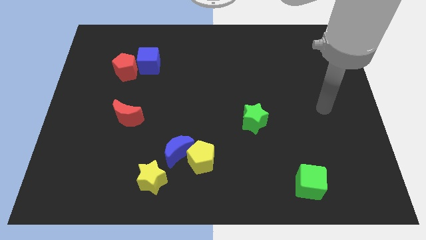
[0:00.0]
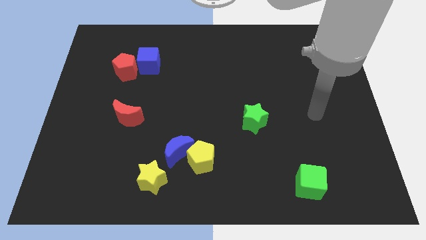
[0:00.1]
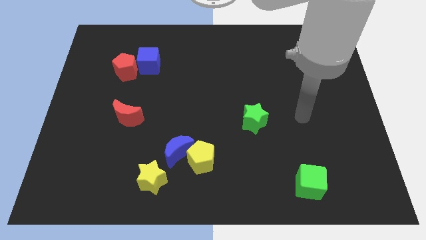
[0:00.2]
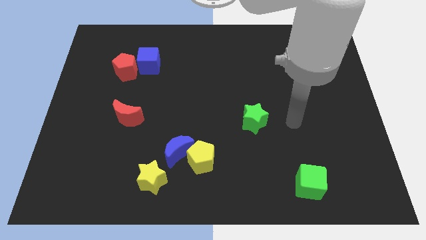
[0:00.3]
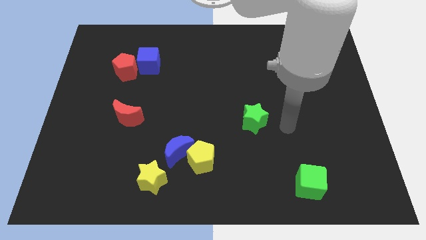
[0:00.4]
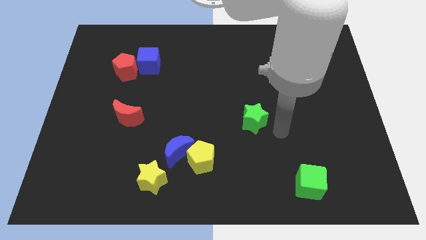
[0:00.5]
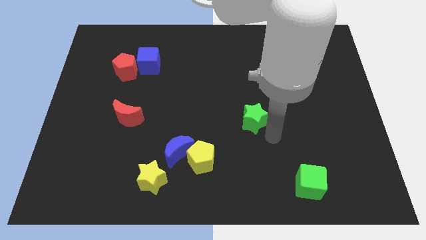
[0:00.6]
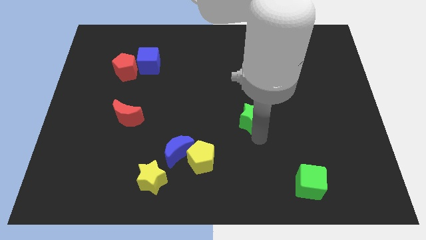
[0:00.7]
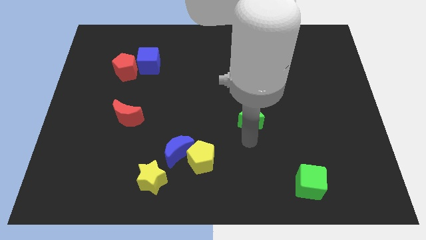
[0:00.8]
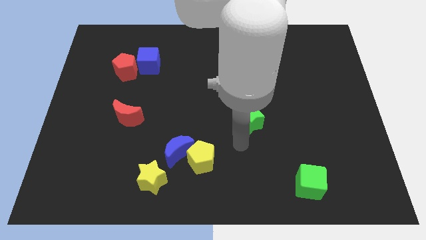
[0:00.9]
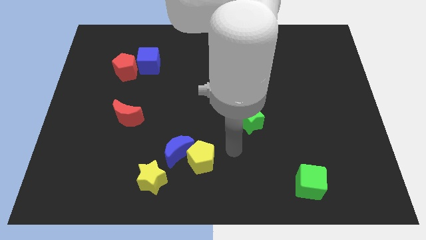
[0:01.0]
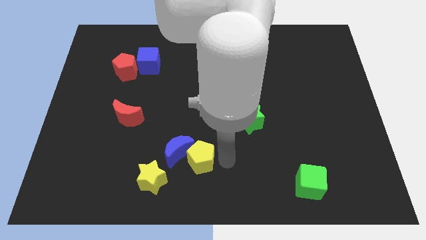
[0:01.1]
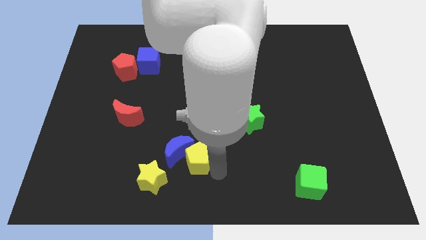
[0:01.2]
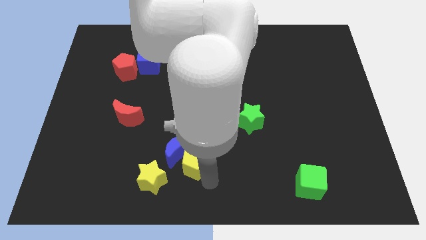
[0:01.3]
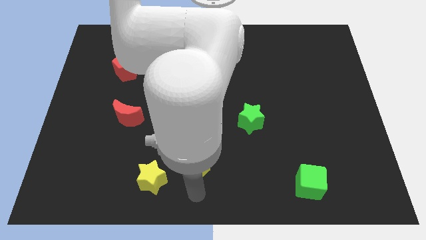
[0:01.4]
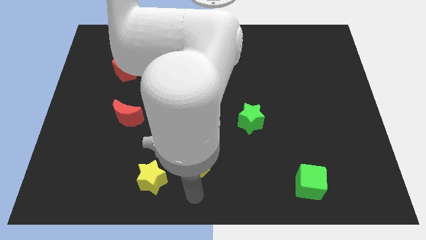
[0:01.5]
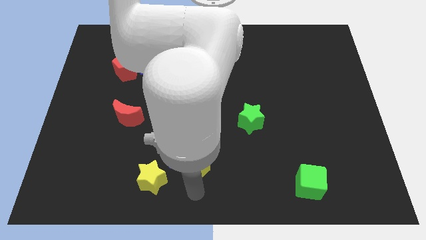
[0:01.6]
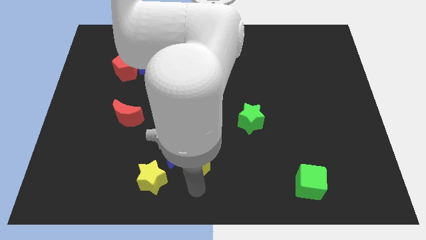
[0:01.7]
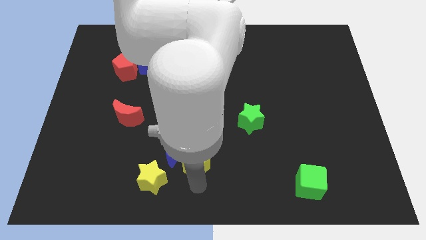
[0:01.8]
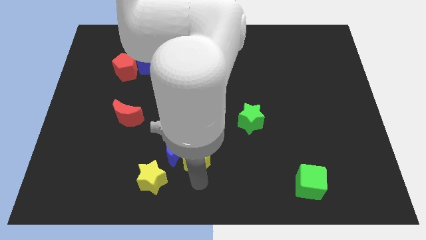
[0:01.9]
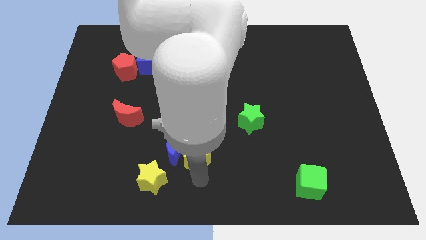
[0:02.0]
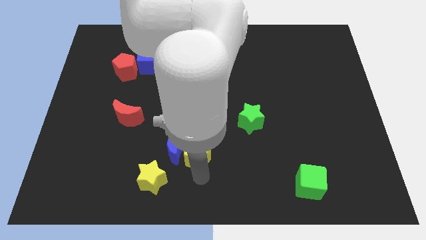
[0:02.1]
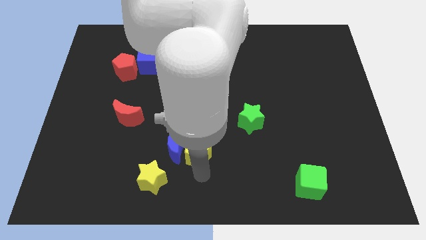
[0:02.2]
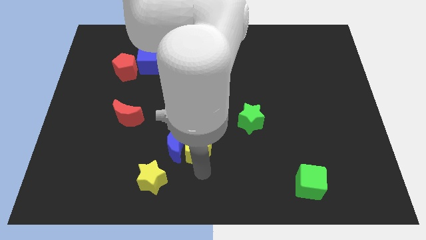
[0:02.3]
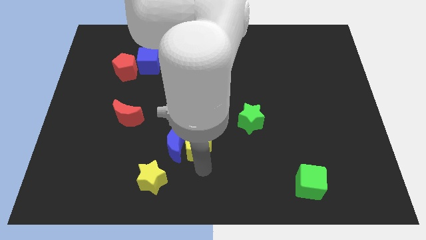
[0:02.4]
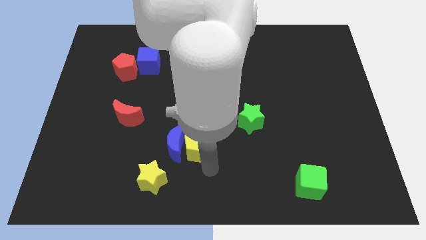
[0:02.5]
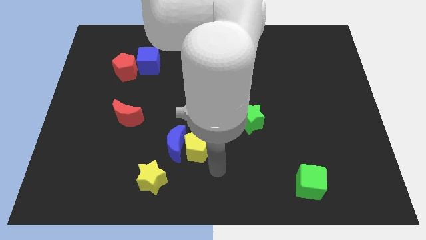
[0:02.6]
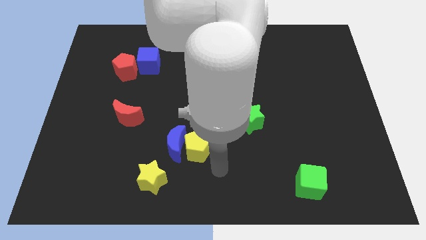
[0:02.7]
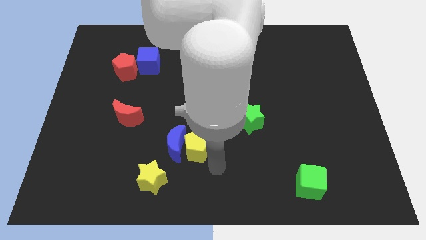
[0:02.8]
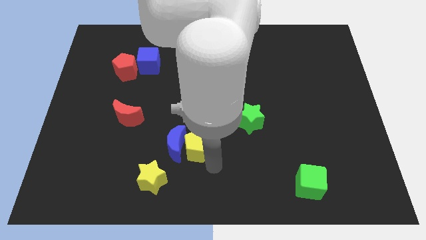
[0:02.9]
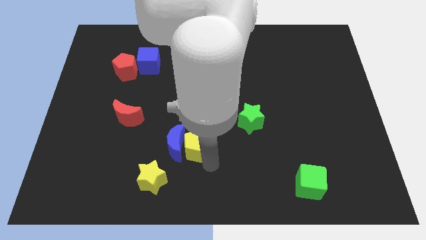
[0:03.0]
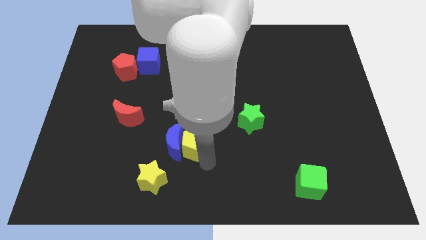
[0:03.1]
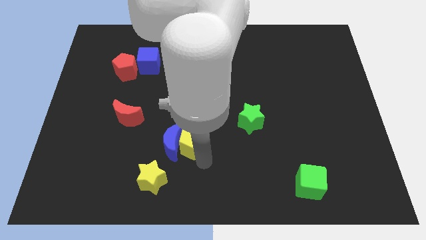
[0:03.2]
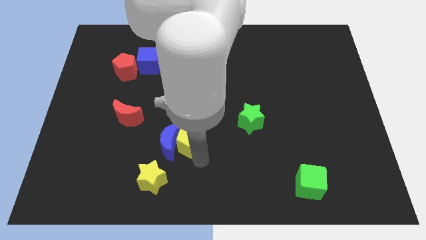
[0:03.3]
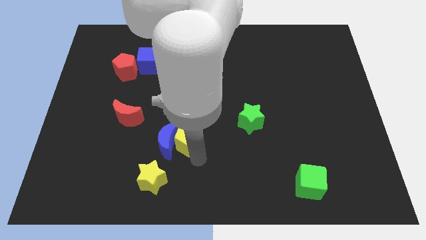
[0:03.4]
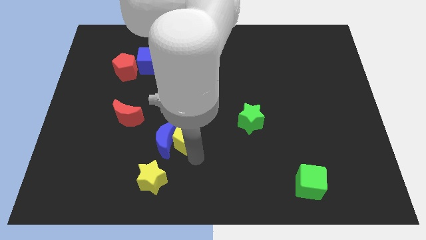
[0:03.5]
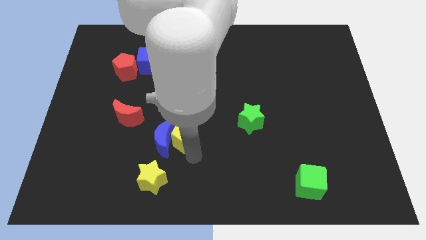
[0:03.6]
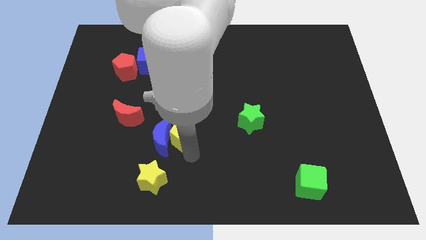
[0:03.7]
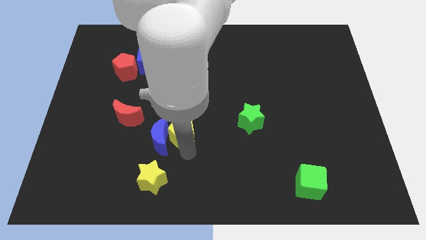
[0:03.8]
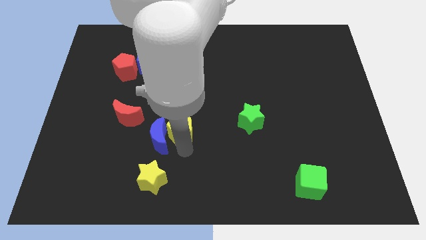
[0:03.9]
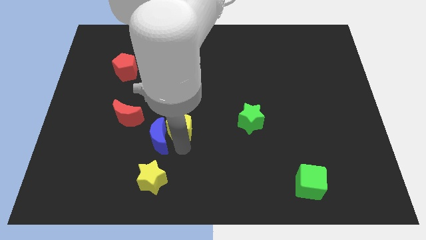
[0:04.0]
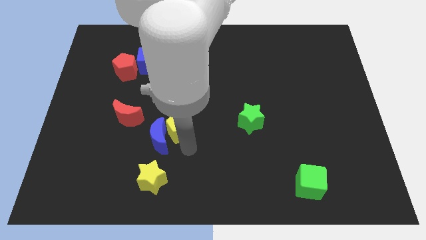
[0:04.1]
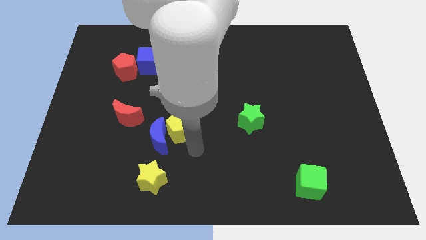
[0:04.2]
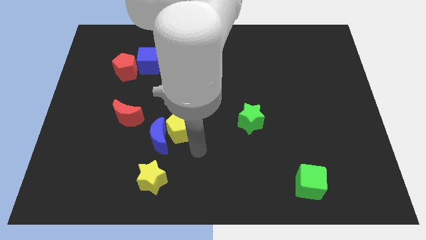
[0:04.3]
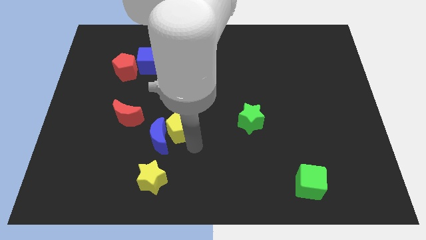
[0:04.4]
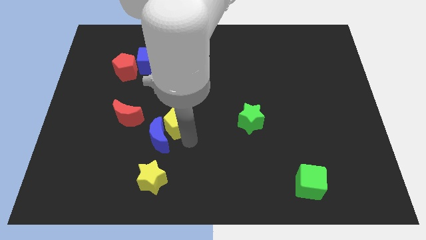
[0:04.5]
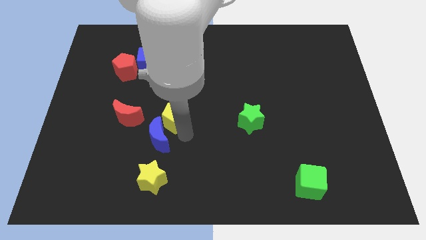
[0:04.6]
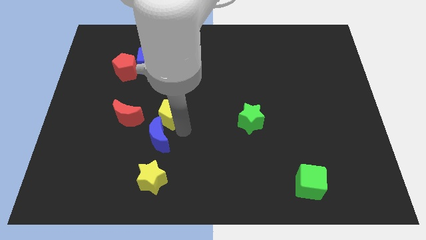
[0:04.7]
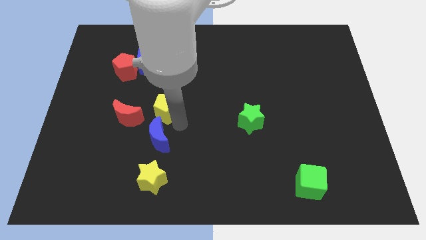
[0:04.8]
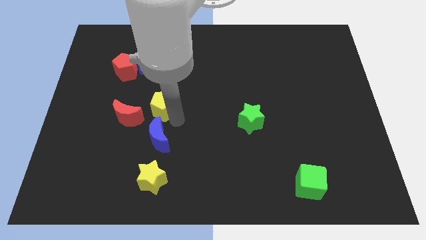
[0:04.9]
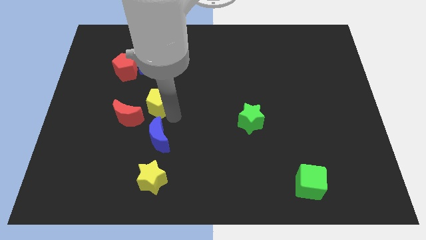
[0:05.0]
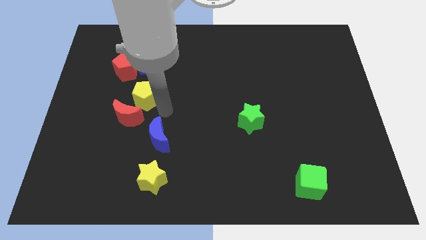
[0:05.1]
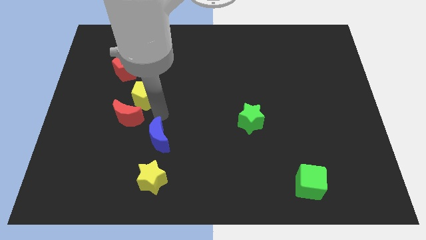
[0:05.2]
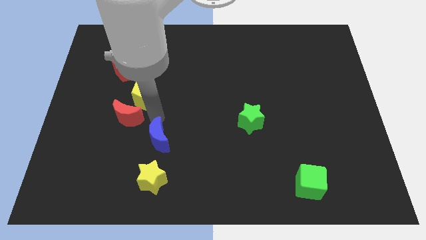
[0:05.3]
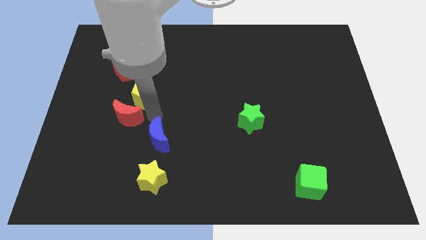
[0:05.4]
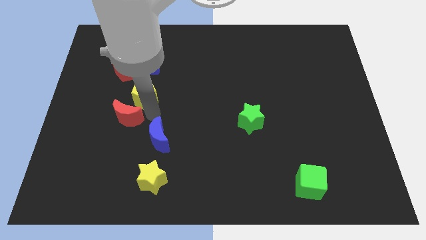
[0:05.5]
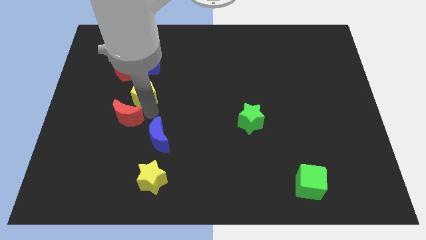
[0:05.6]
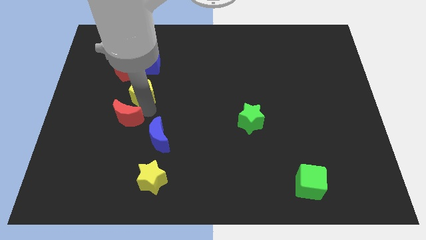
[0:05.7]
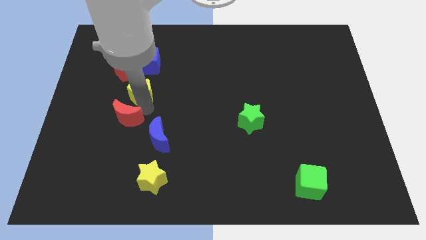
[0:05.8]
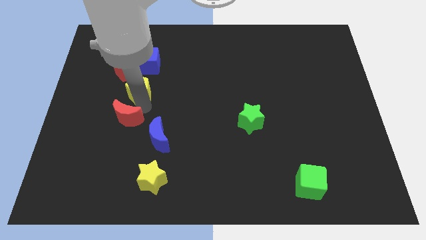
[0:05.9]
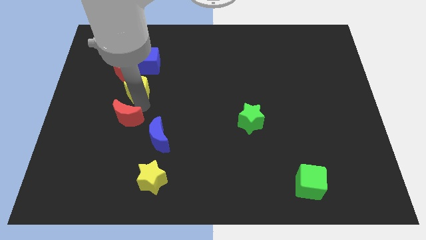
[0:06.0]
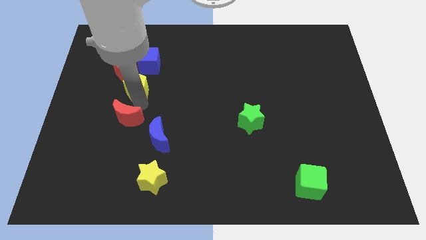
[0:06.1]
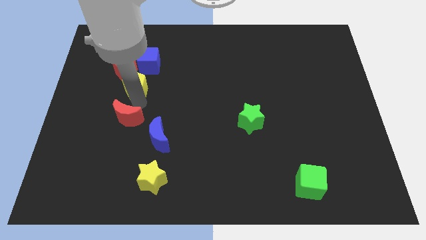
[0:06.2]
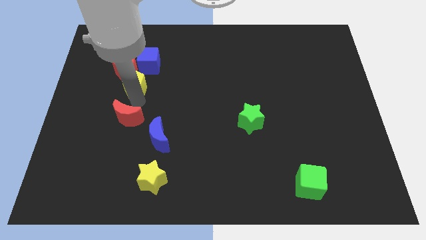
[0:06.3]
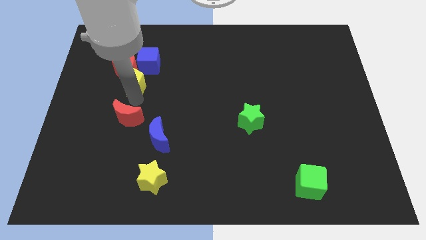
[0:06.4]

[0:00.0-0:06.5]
move the yellow pentagon to the red pentagon

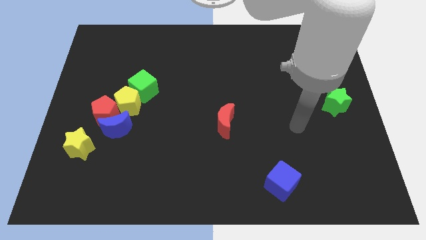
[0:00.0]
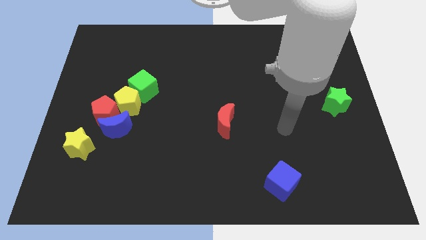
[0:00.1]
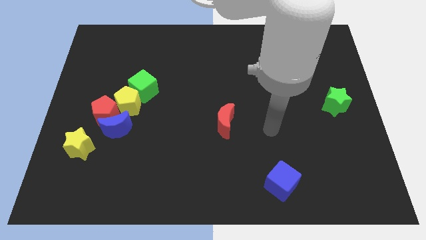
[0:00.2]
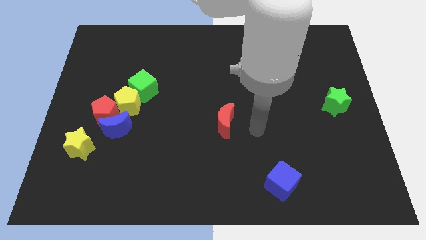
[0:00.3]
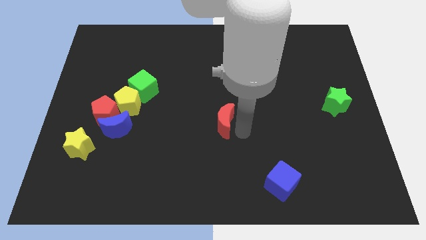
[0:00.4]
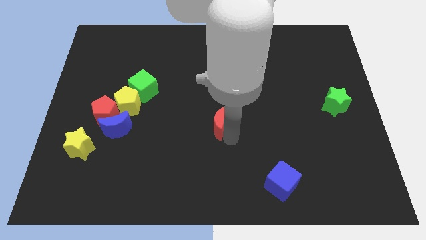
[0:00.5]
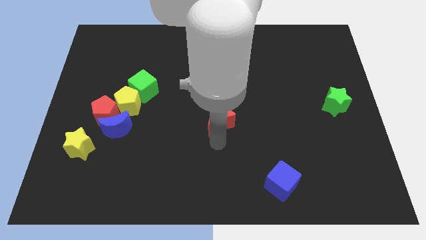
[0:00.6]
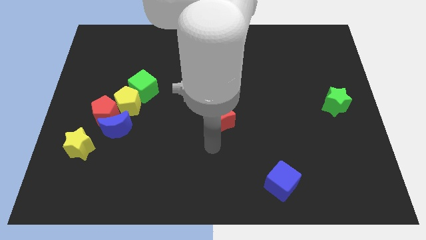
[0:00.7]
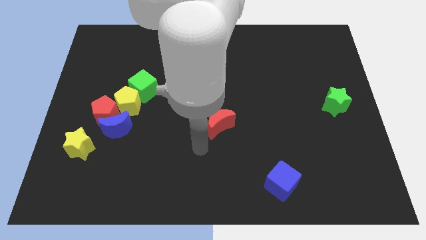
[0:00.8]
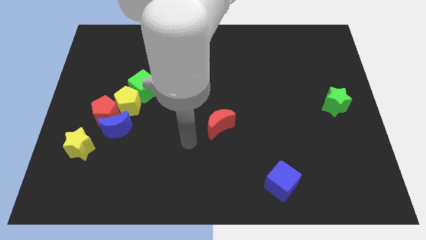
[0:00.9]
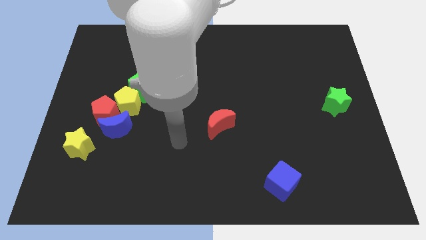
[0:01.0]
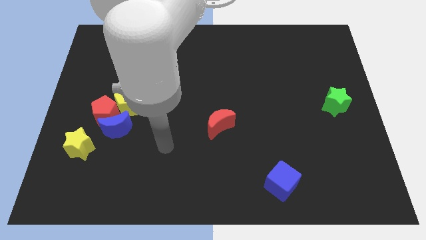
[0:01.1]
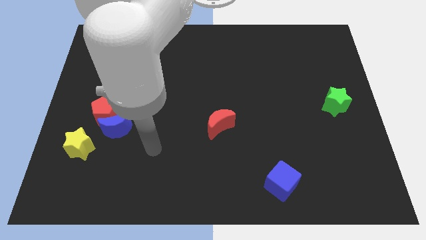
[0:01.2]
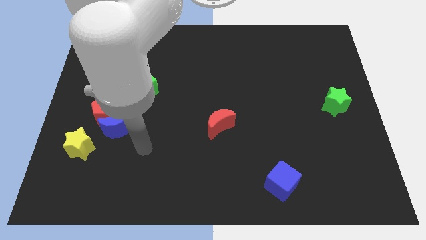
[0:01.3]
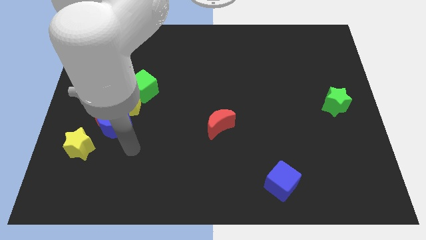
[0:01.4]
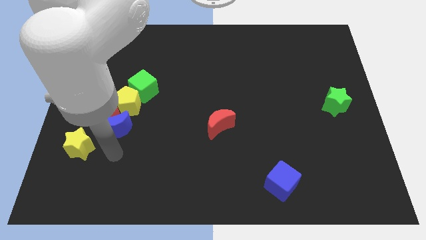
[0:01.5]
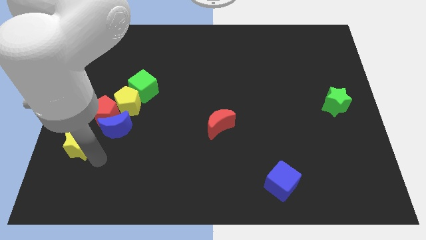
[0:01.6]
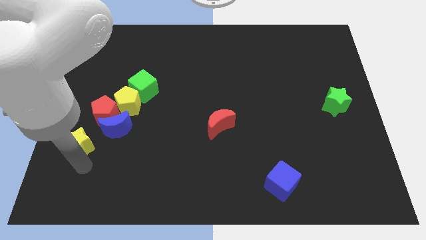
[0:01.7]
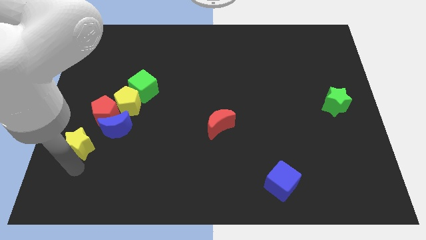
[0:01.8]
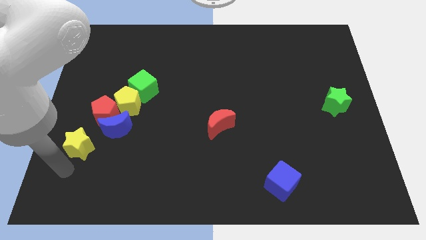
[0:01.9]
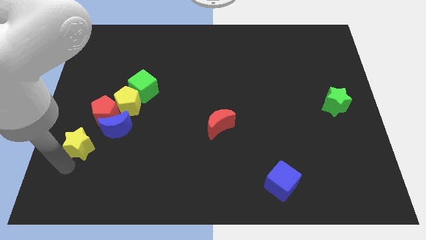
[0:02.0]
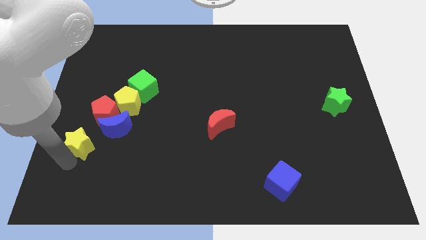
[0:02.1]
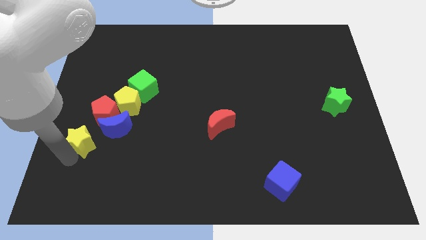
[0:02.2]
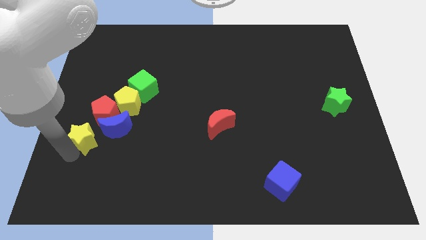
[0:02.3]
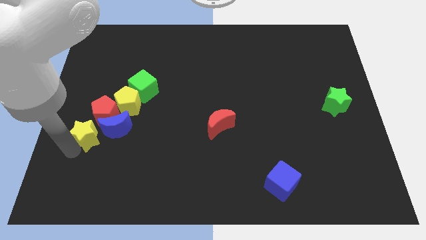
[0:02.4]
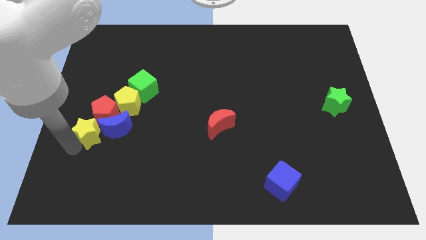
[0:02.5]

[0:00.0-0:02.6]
push the yellow star towards the red pentagon
